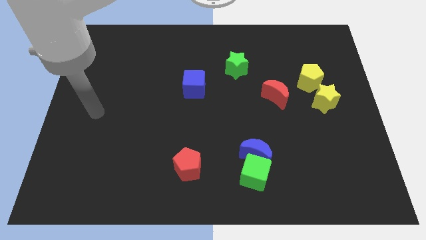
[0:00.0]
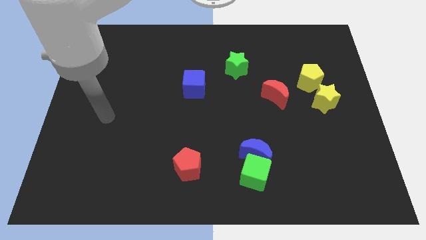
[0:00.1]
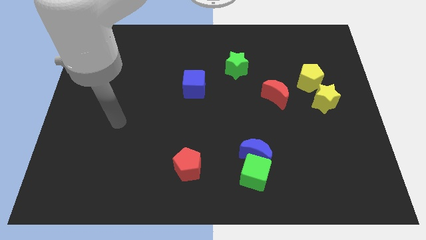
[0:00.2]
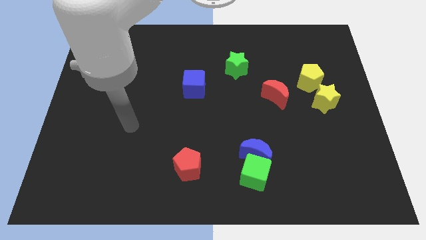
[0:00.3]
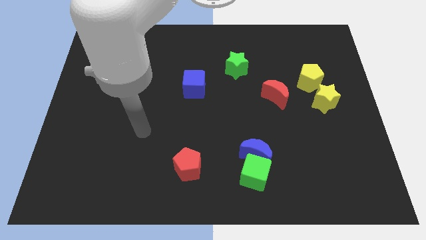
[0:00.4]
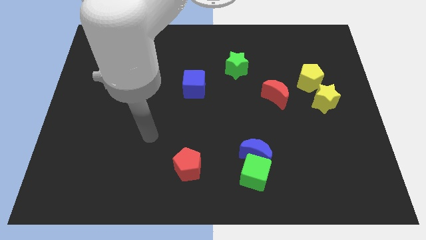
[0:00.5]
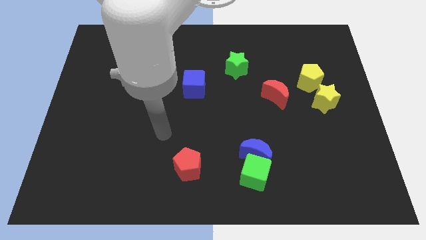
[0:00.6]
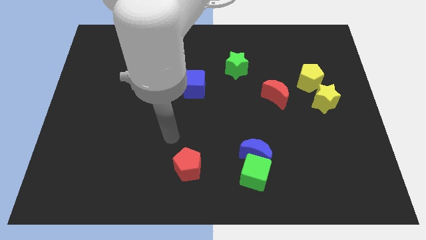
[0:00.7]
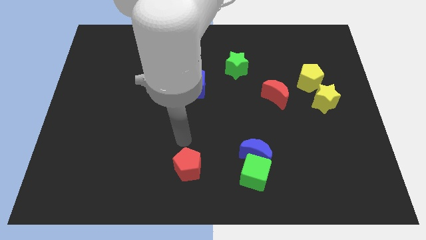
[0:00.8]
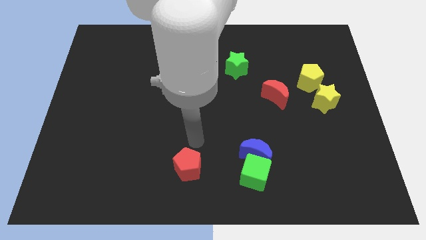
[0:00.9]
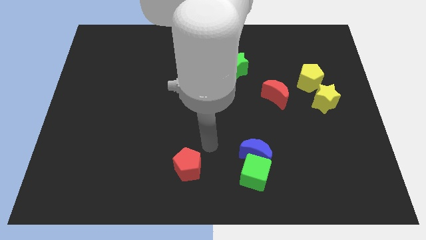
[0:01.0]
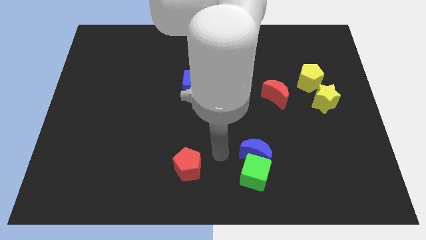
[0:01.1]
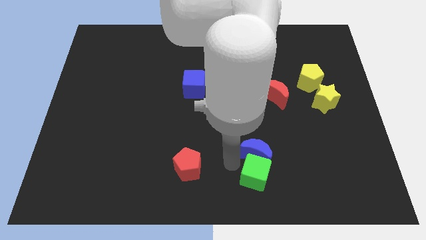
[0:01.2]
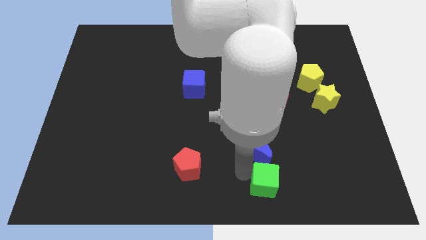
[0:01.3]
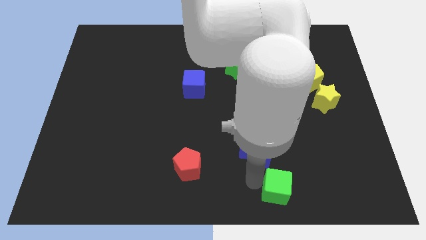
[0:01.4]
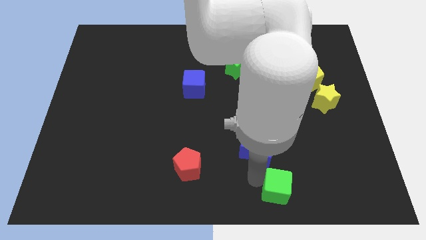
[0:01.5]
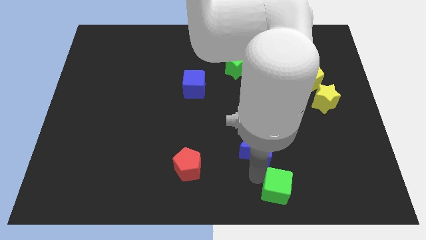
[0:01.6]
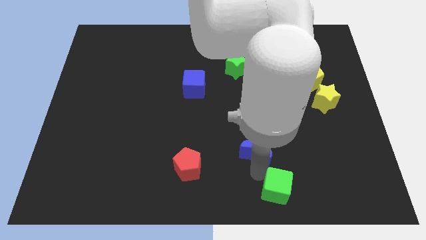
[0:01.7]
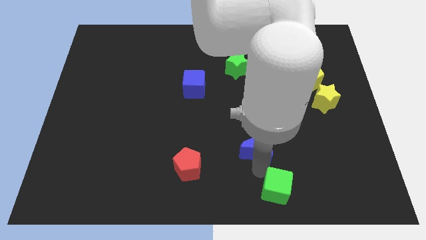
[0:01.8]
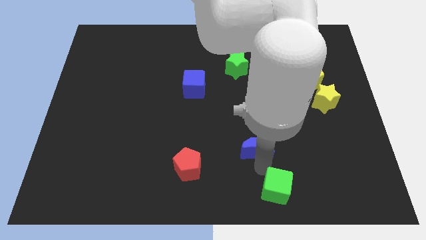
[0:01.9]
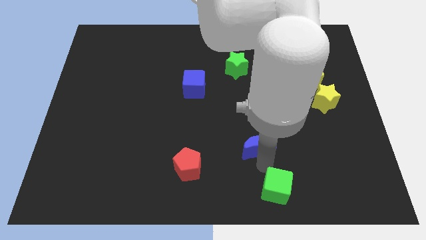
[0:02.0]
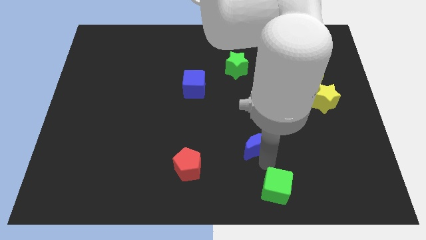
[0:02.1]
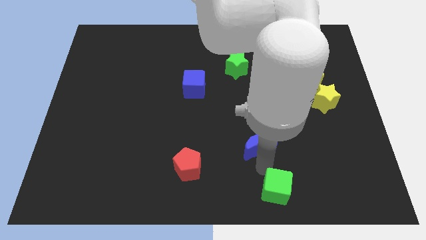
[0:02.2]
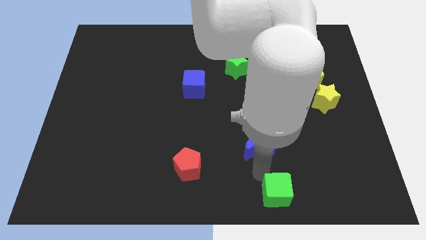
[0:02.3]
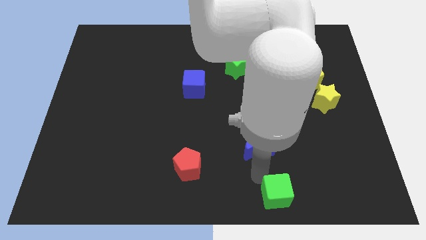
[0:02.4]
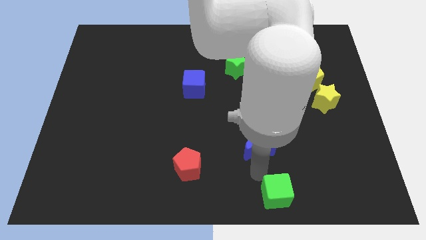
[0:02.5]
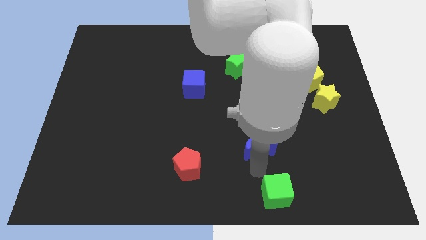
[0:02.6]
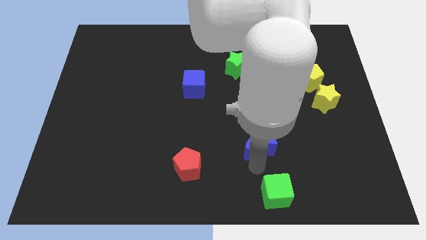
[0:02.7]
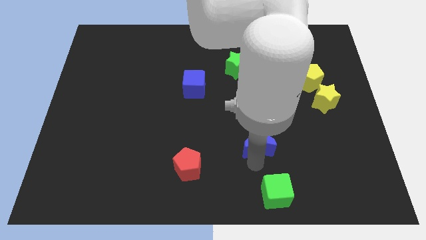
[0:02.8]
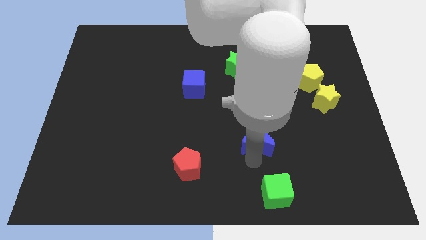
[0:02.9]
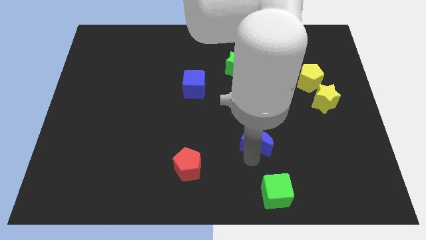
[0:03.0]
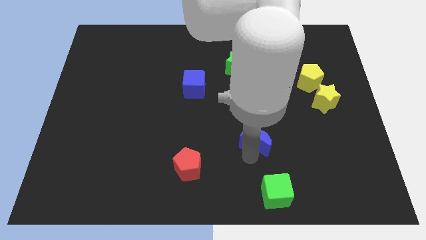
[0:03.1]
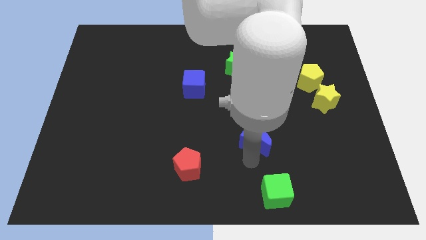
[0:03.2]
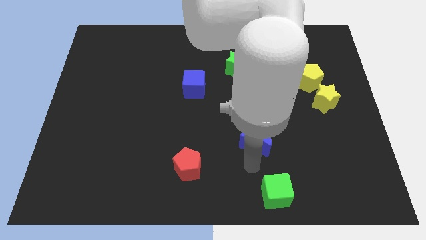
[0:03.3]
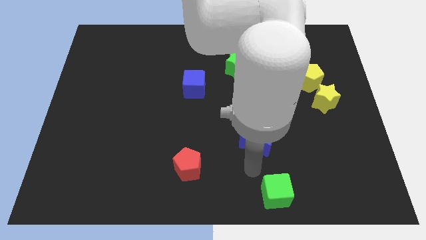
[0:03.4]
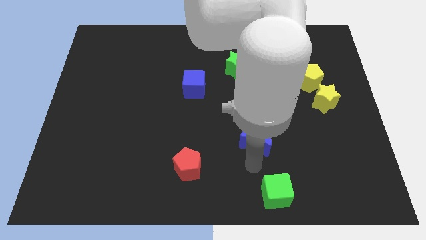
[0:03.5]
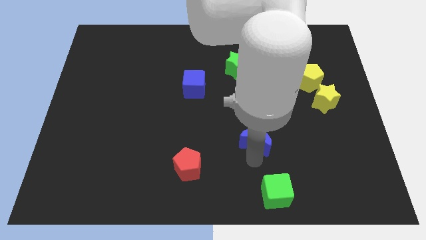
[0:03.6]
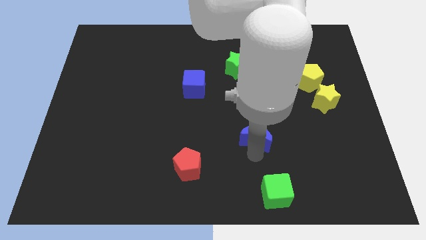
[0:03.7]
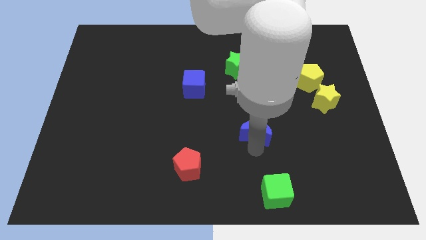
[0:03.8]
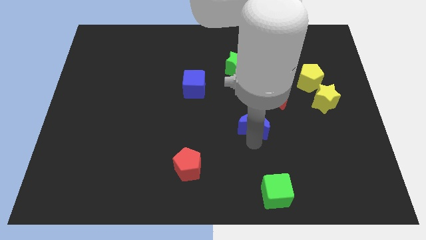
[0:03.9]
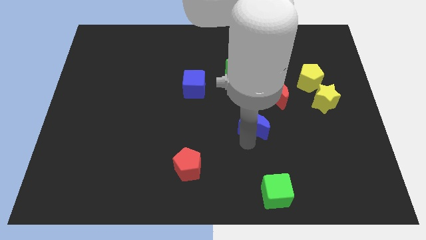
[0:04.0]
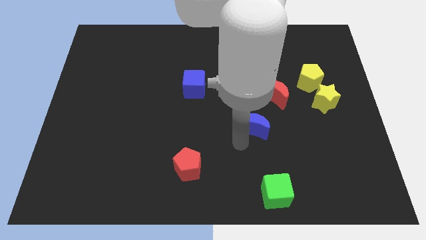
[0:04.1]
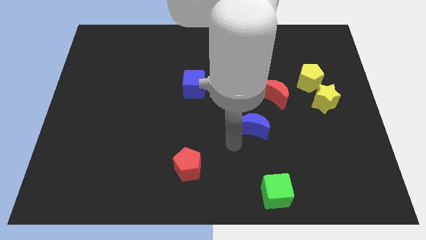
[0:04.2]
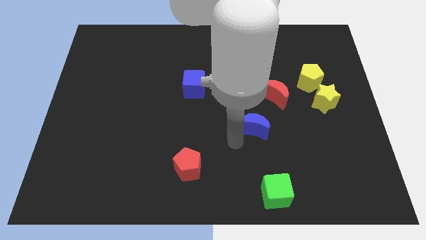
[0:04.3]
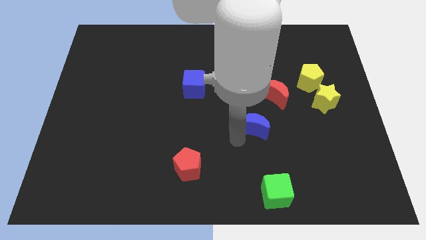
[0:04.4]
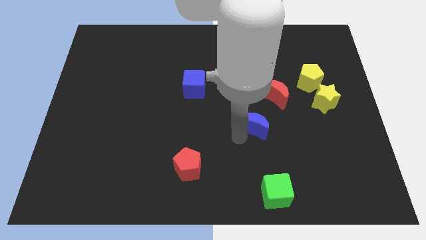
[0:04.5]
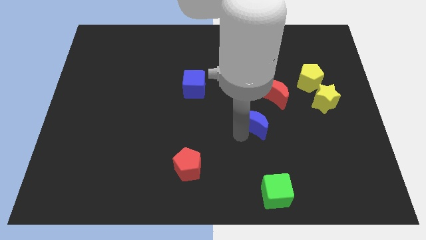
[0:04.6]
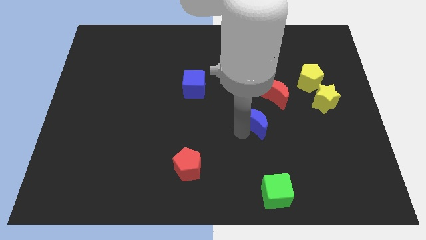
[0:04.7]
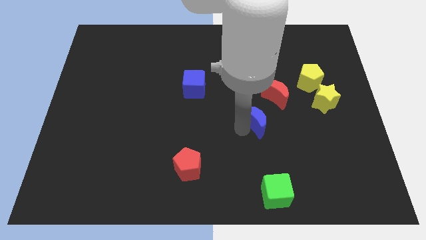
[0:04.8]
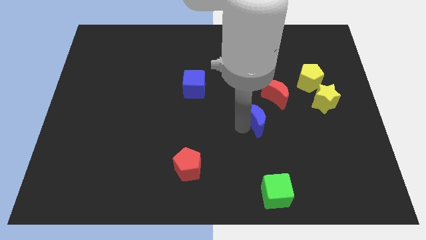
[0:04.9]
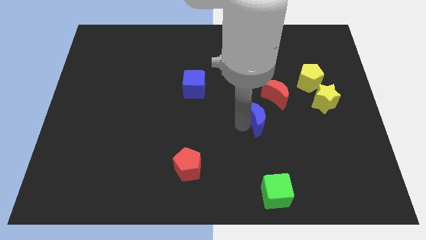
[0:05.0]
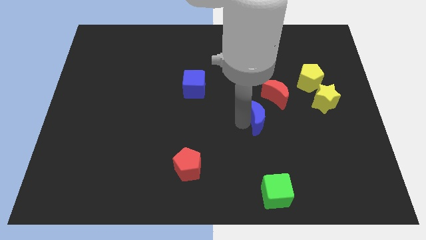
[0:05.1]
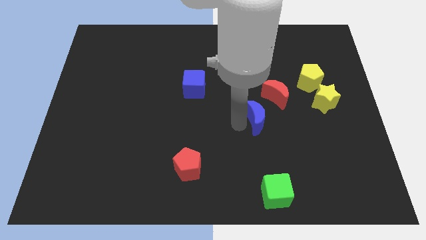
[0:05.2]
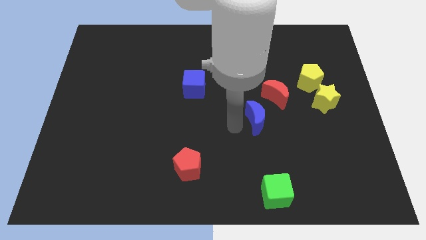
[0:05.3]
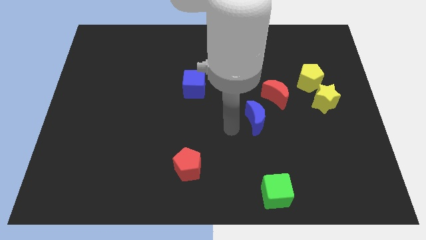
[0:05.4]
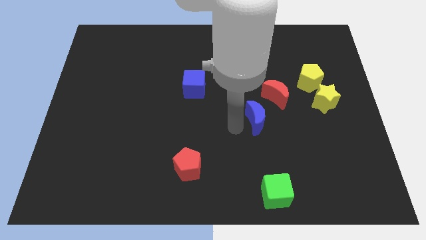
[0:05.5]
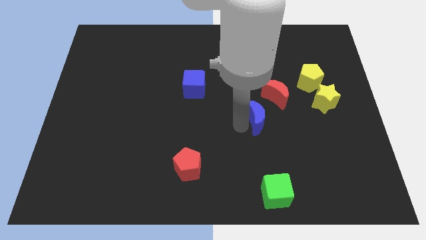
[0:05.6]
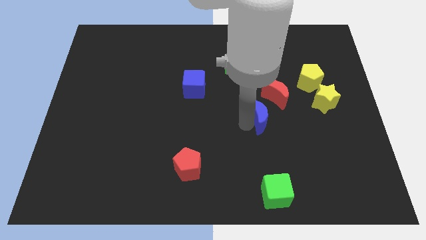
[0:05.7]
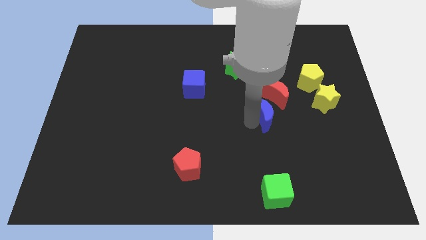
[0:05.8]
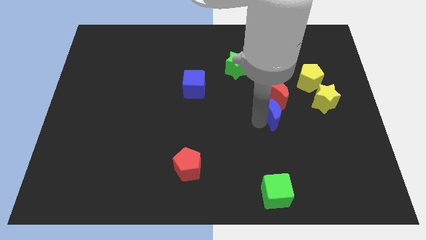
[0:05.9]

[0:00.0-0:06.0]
push the blue moon close to the red moon

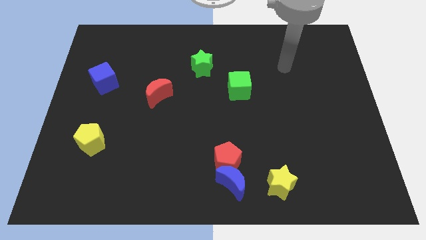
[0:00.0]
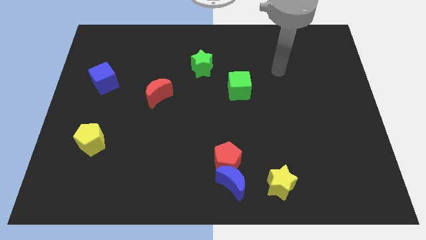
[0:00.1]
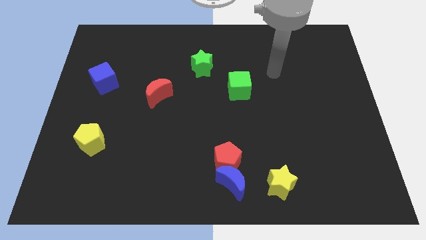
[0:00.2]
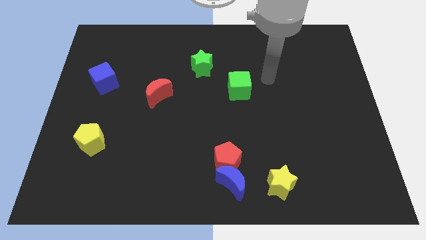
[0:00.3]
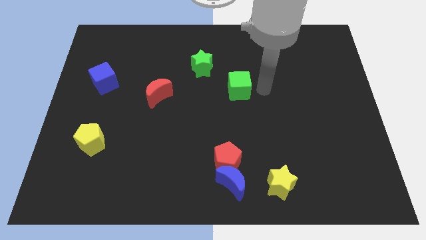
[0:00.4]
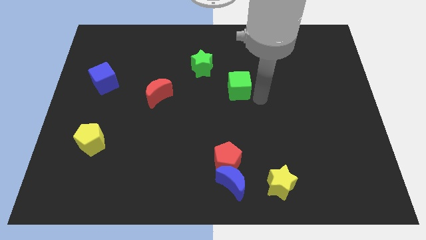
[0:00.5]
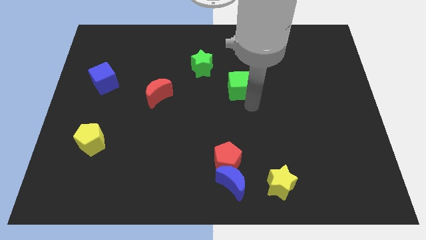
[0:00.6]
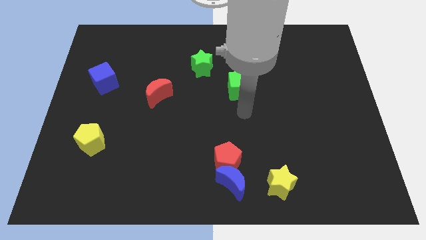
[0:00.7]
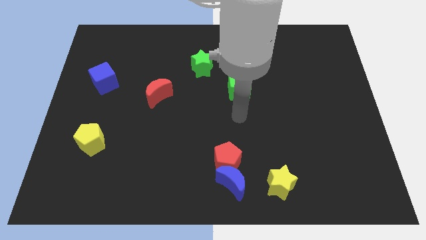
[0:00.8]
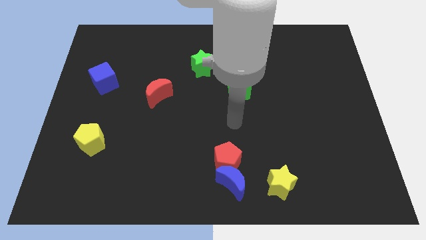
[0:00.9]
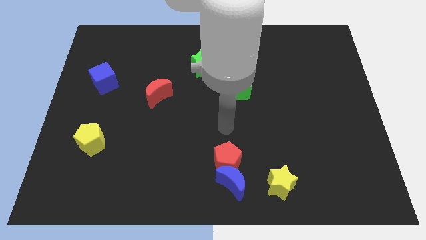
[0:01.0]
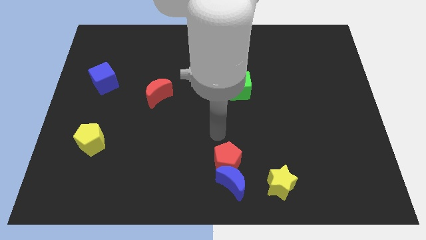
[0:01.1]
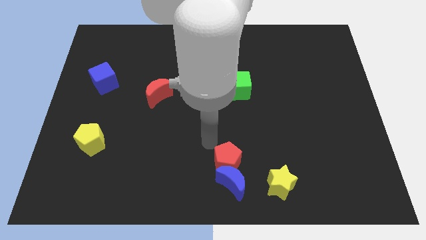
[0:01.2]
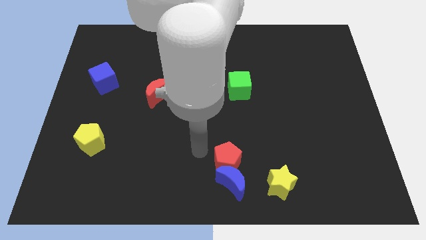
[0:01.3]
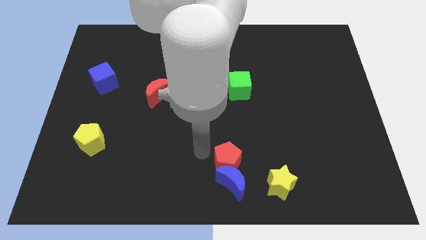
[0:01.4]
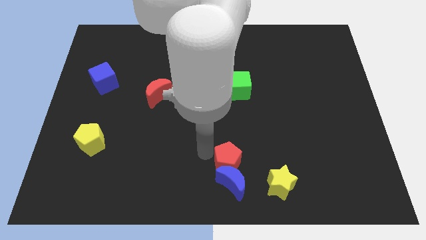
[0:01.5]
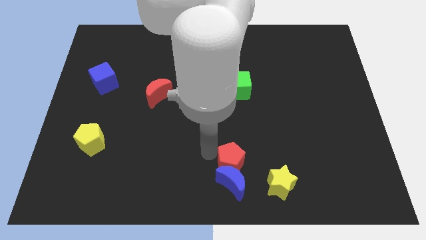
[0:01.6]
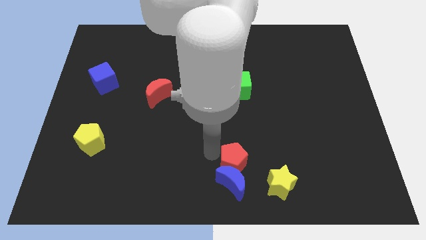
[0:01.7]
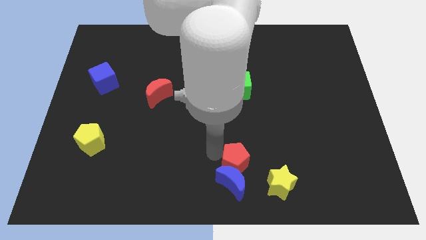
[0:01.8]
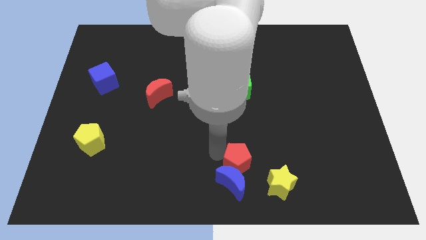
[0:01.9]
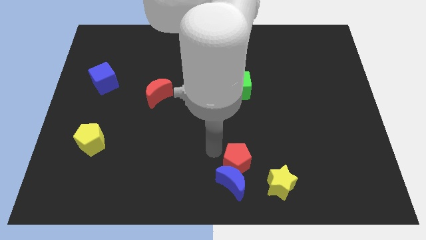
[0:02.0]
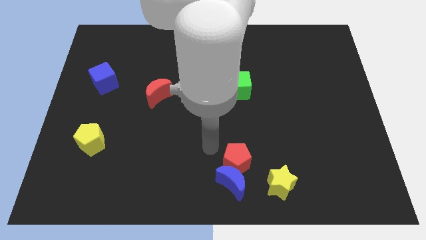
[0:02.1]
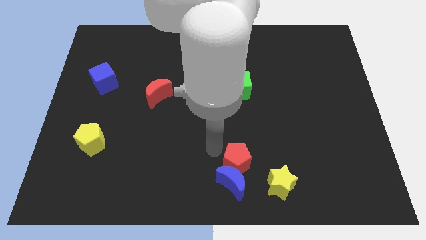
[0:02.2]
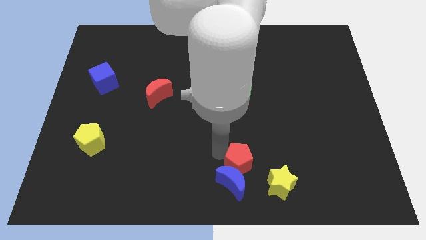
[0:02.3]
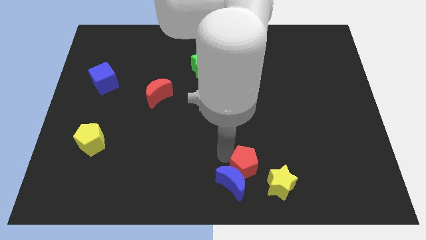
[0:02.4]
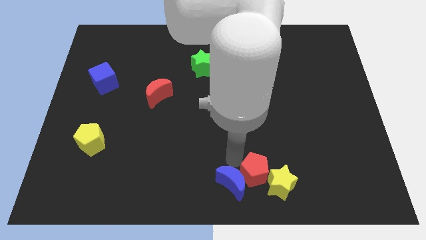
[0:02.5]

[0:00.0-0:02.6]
slide the red pentagon to the yellow star
